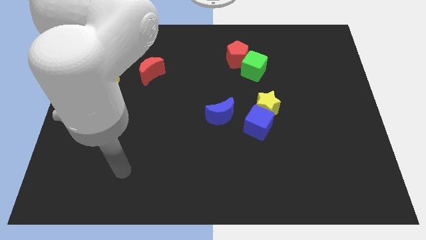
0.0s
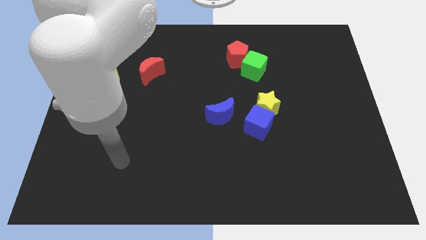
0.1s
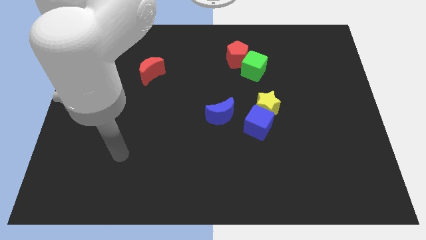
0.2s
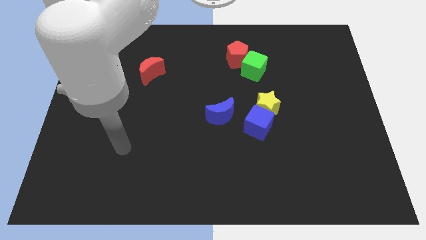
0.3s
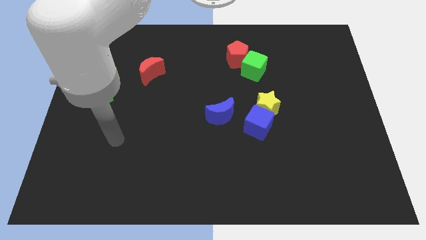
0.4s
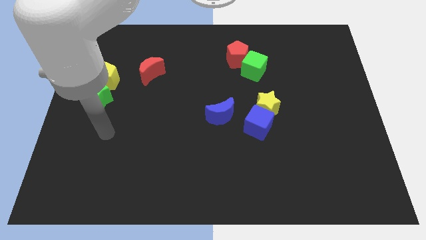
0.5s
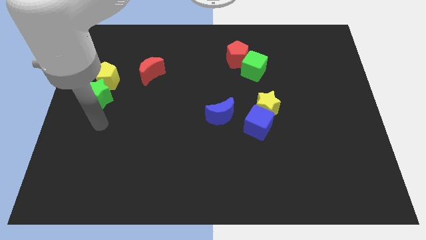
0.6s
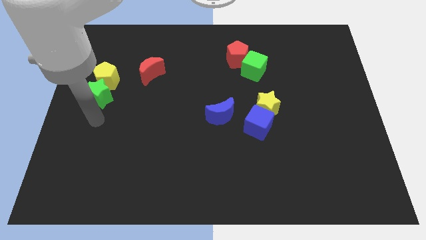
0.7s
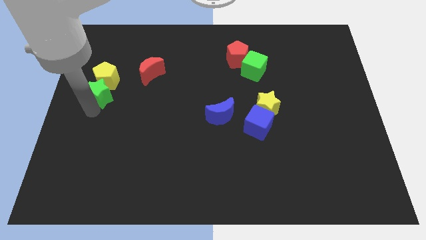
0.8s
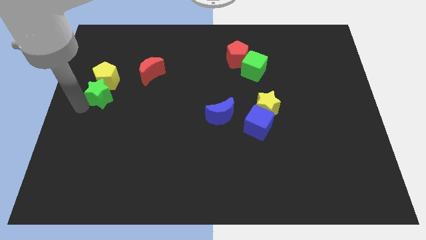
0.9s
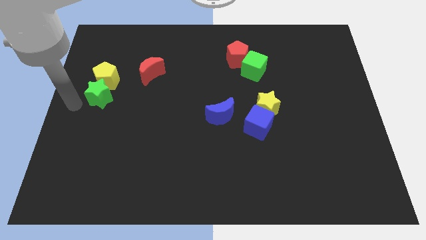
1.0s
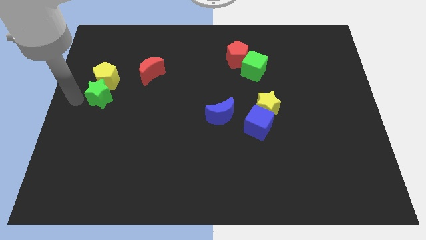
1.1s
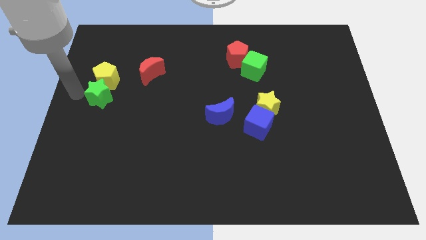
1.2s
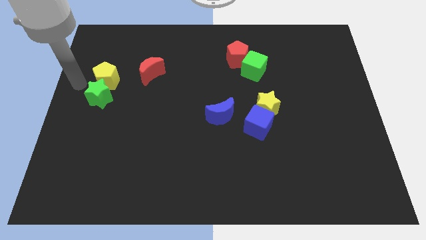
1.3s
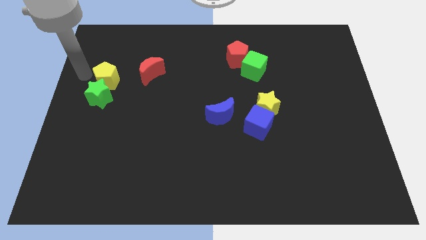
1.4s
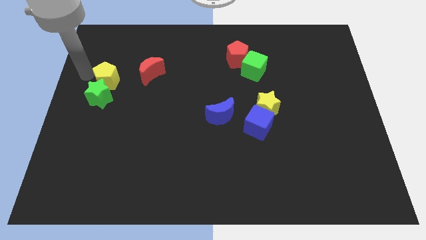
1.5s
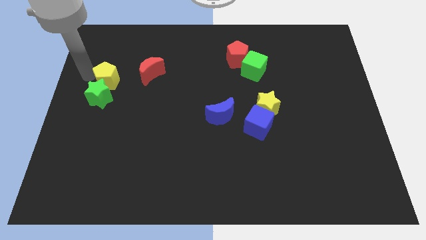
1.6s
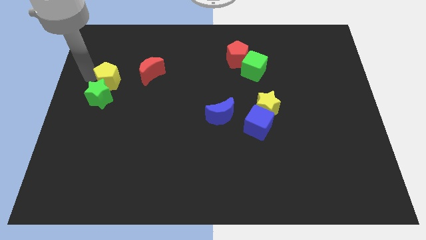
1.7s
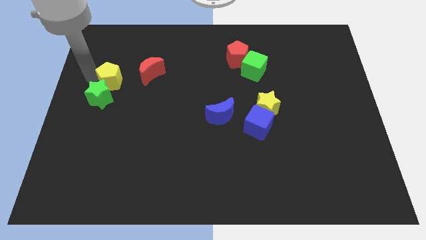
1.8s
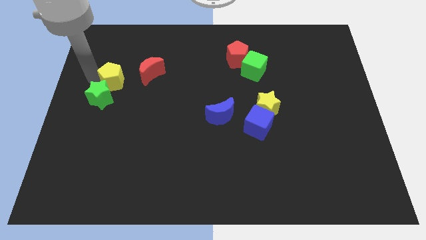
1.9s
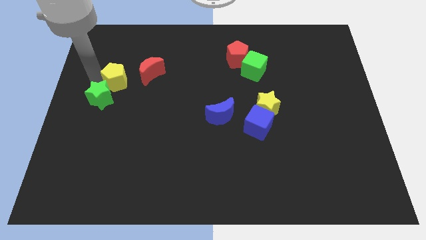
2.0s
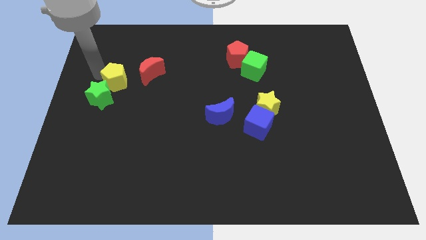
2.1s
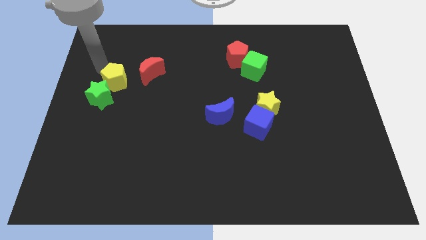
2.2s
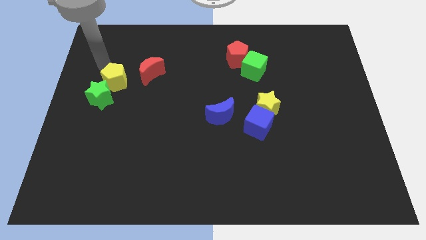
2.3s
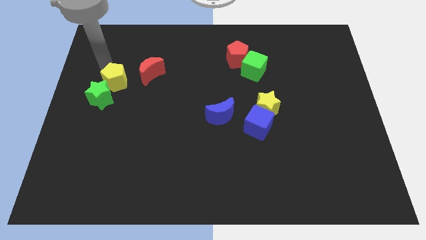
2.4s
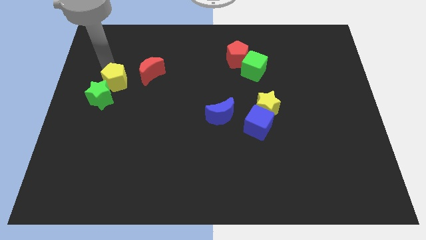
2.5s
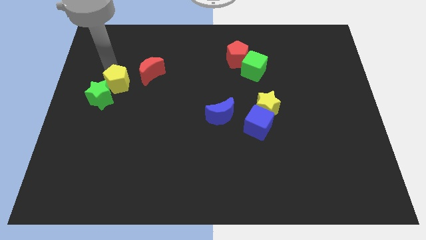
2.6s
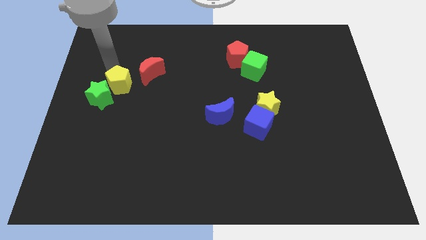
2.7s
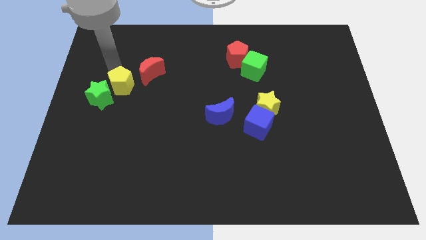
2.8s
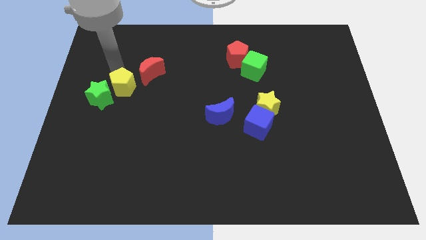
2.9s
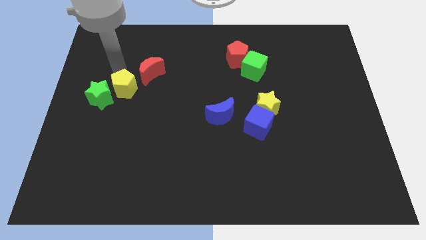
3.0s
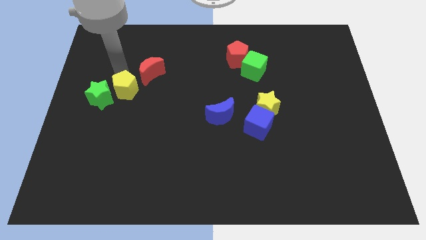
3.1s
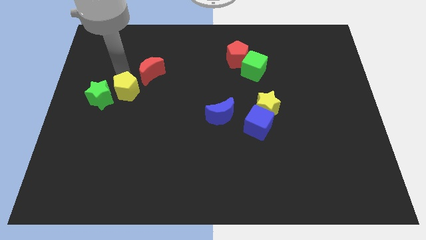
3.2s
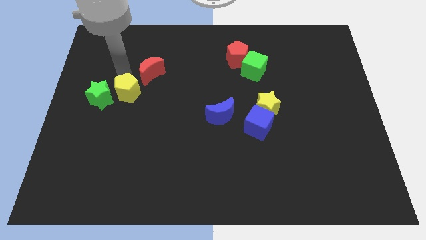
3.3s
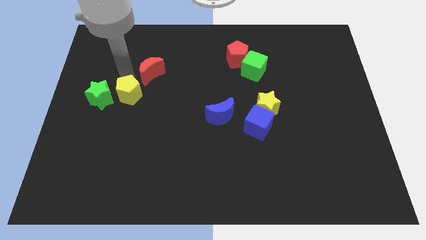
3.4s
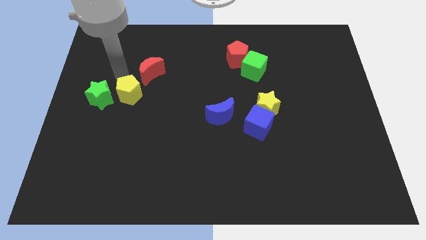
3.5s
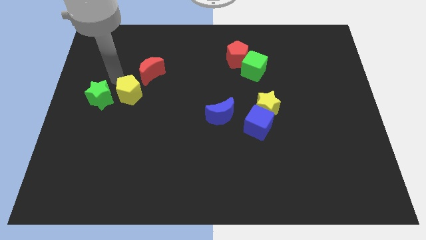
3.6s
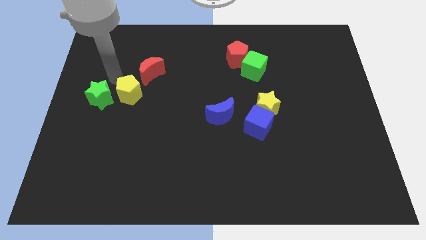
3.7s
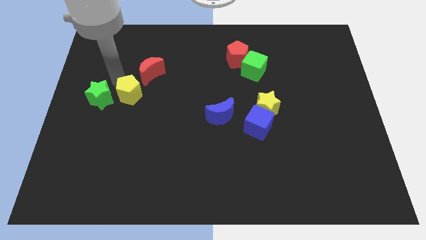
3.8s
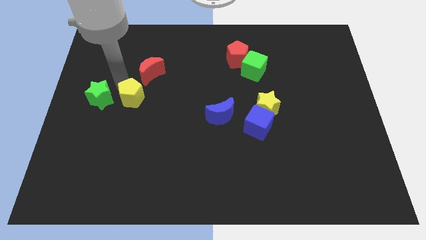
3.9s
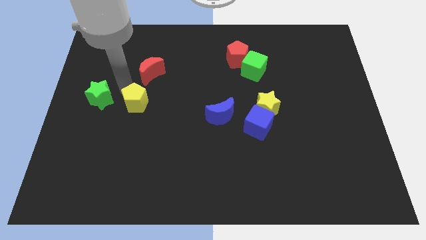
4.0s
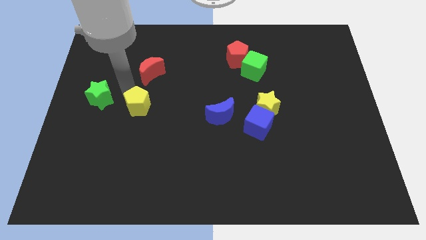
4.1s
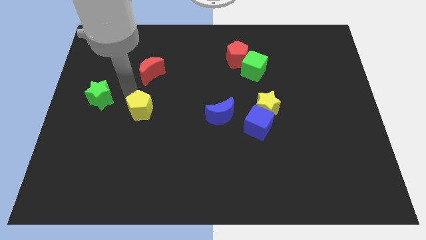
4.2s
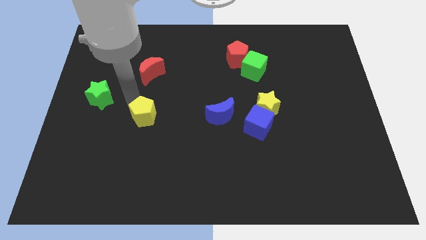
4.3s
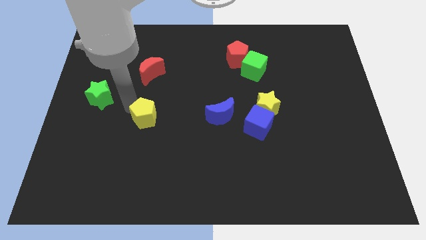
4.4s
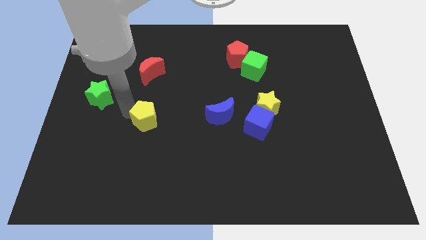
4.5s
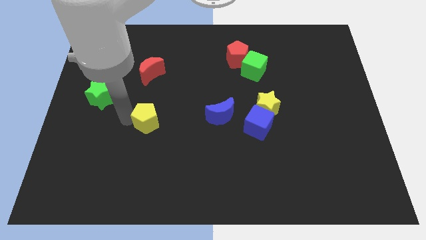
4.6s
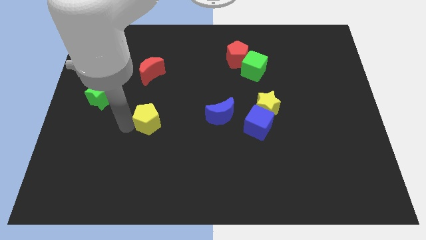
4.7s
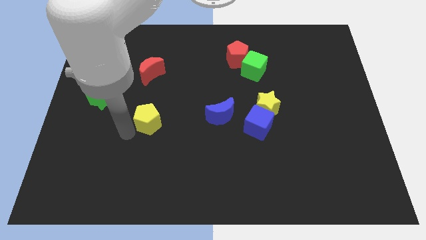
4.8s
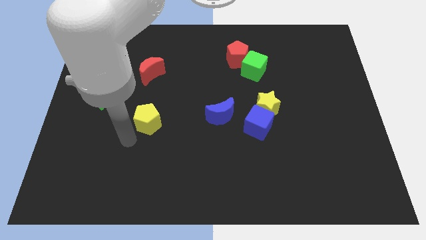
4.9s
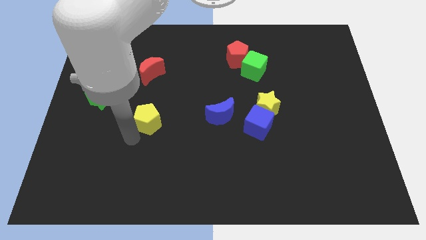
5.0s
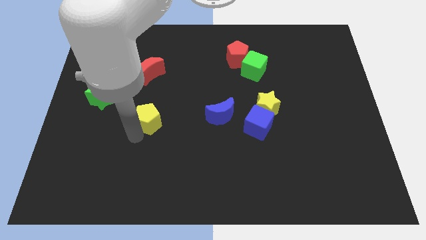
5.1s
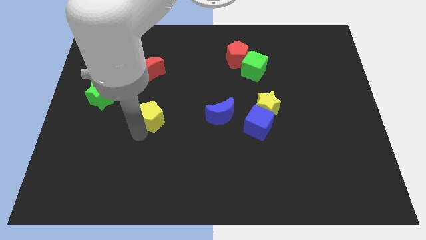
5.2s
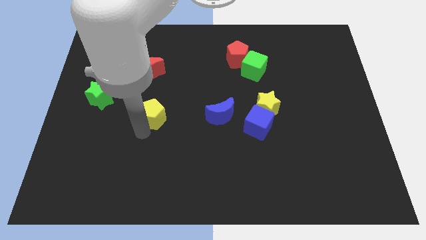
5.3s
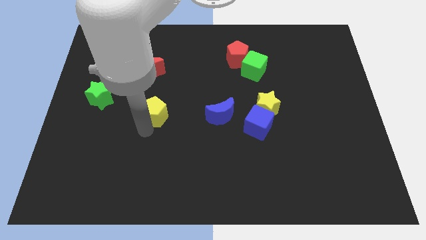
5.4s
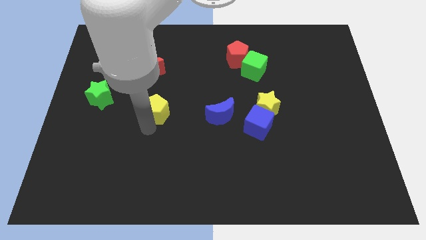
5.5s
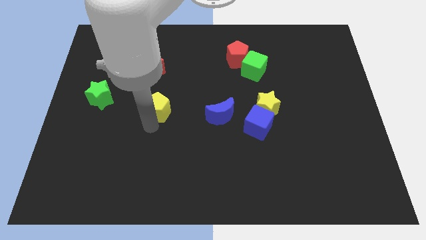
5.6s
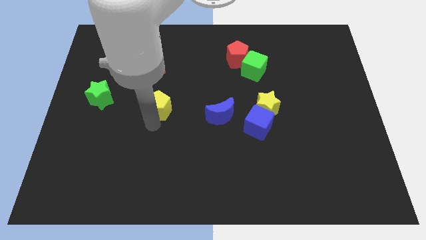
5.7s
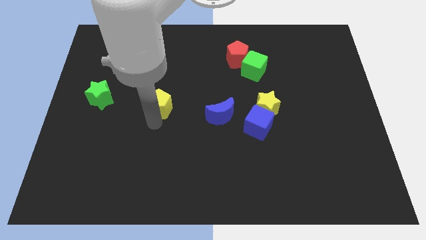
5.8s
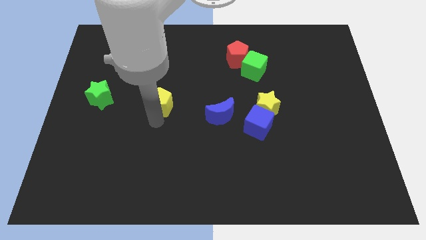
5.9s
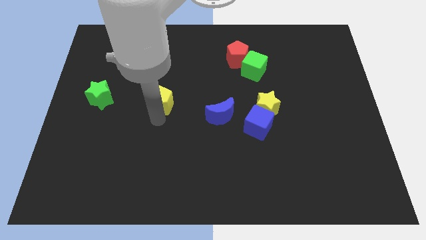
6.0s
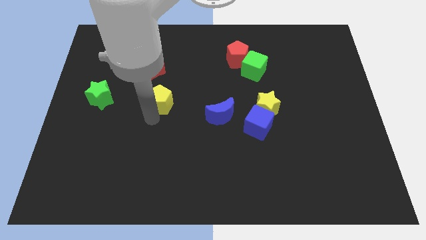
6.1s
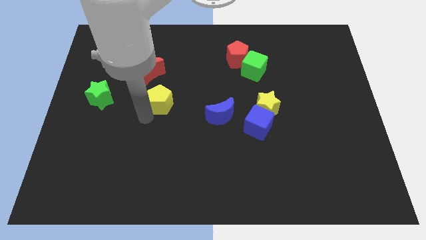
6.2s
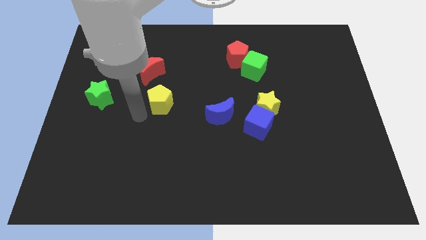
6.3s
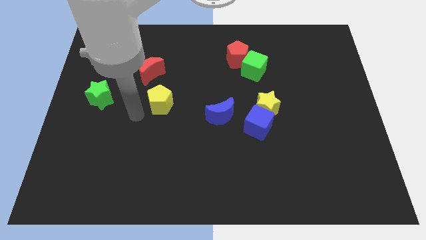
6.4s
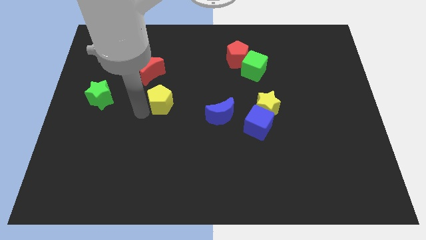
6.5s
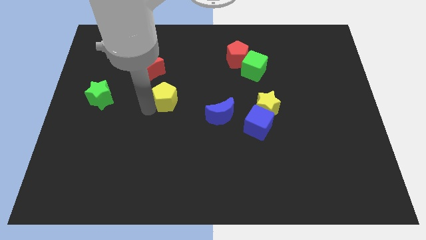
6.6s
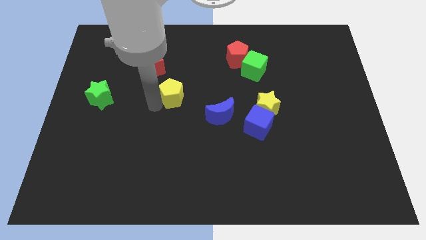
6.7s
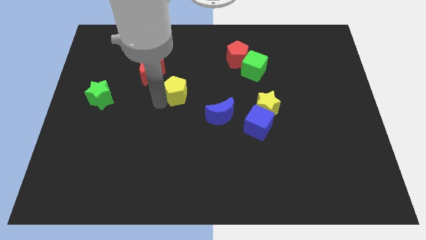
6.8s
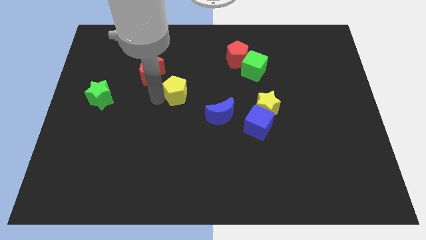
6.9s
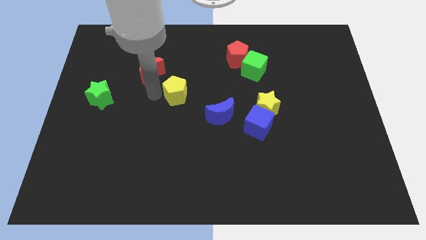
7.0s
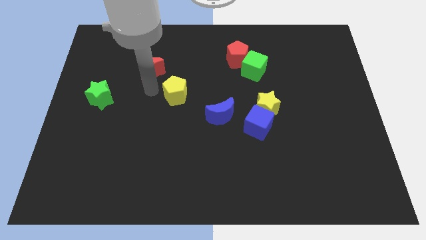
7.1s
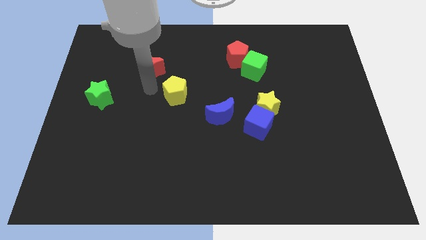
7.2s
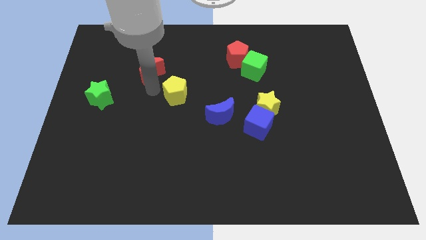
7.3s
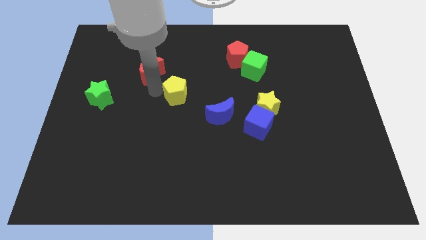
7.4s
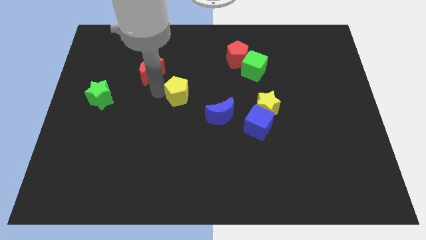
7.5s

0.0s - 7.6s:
slide the yellow pentagon to the top left side of the blue moon
